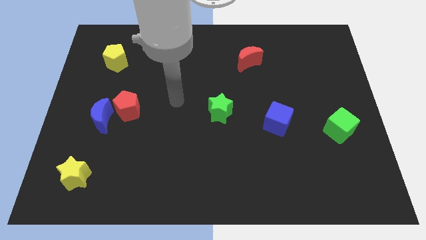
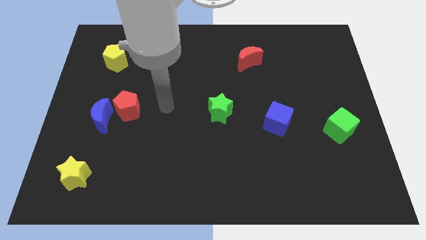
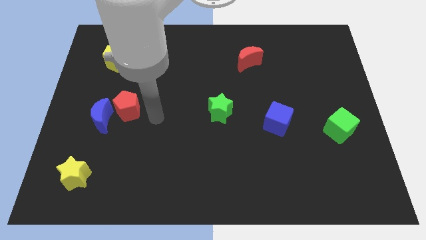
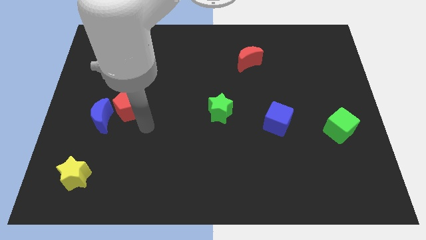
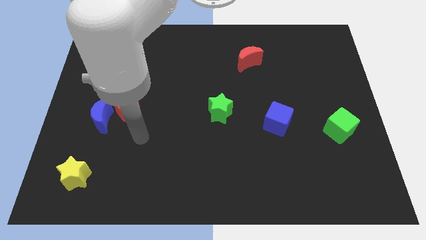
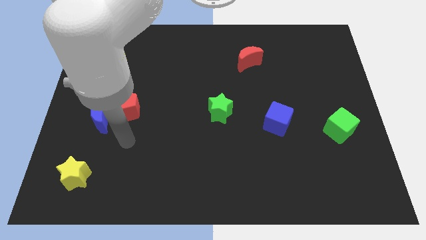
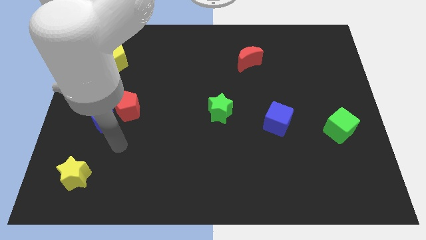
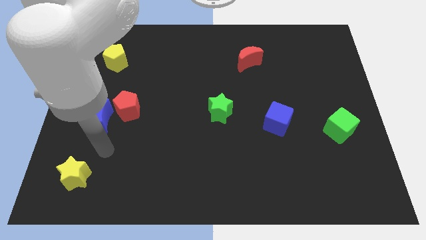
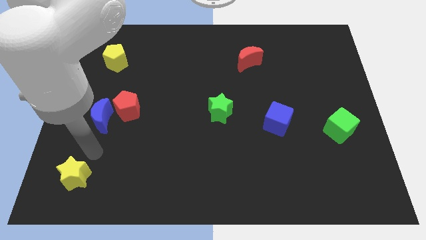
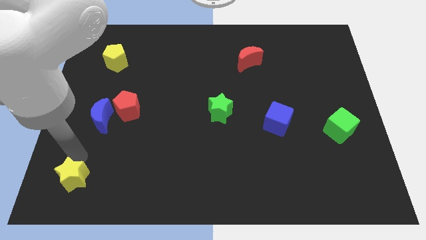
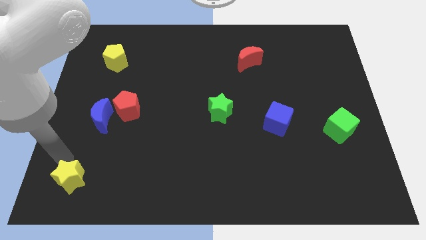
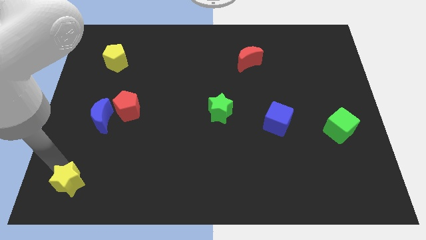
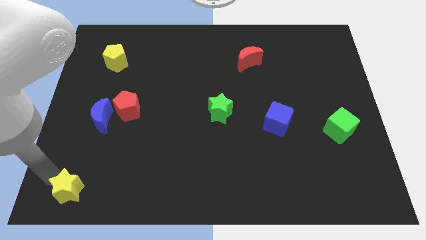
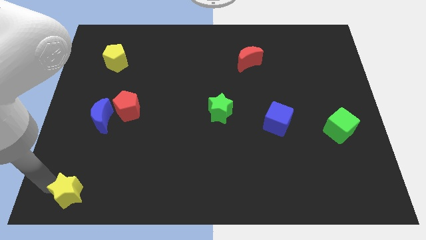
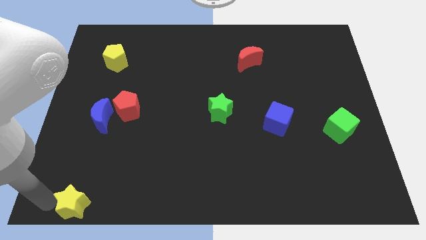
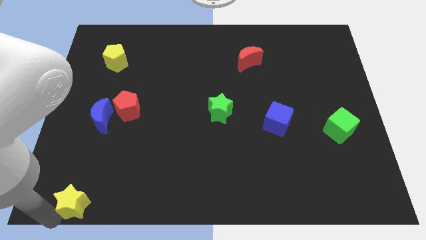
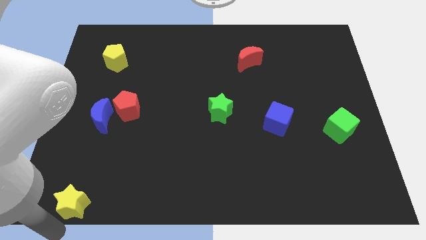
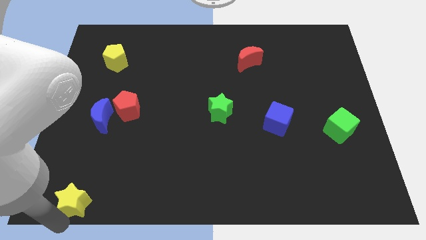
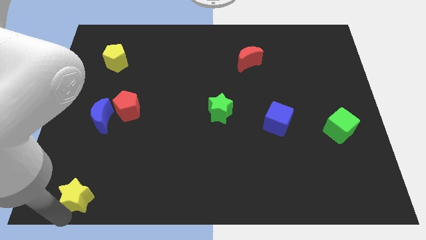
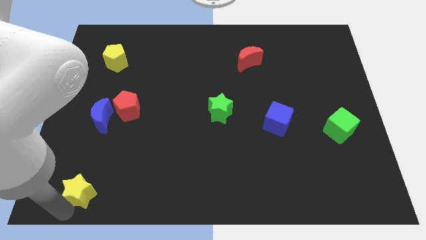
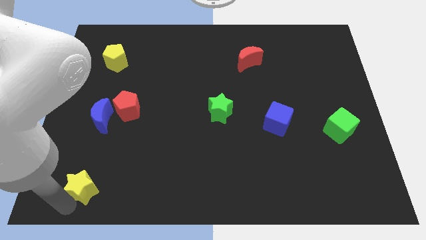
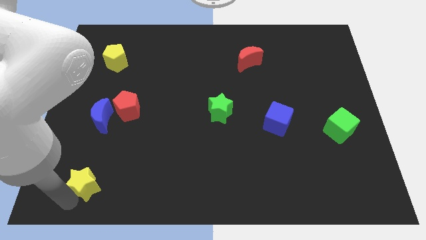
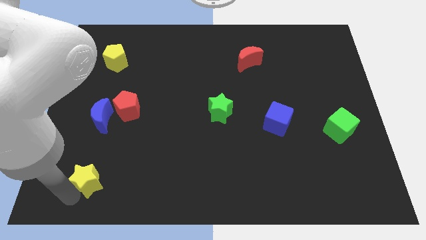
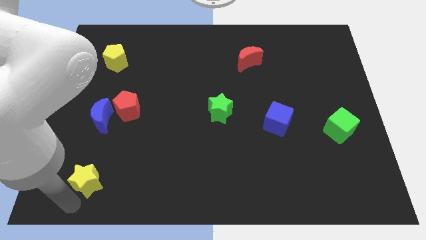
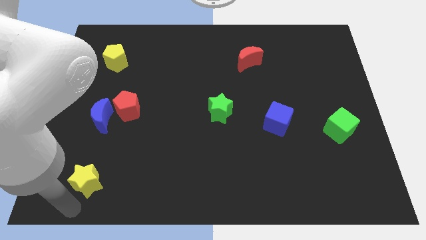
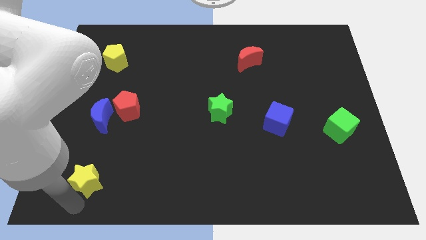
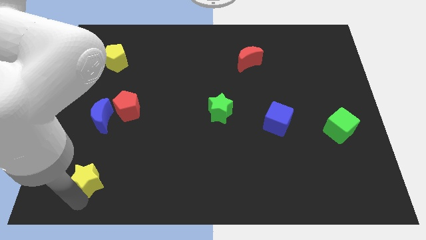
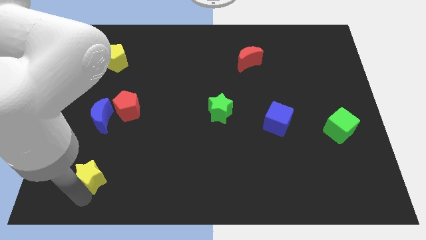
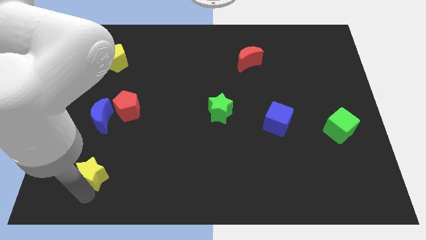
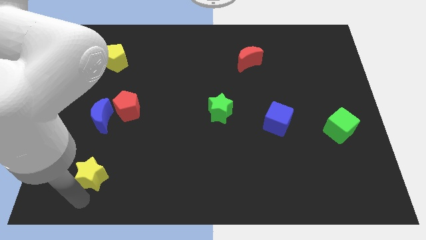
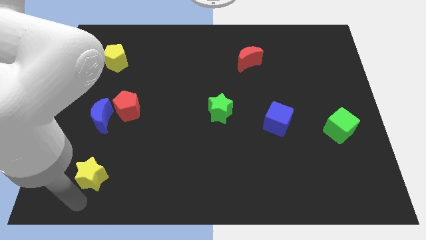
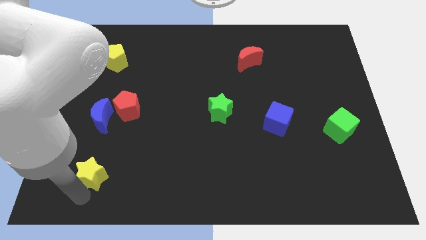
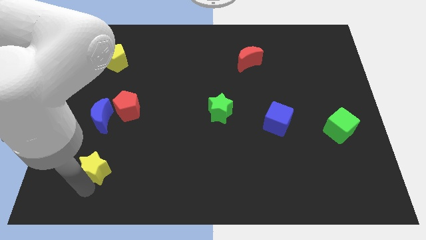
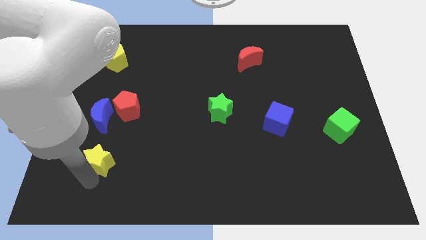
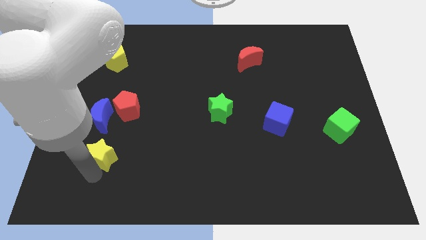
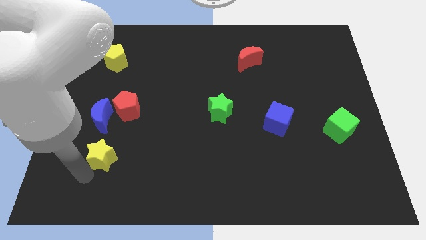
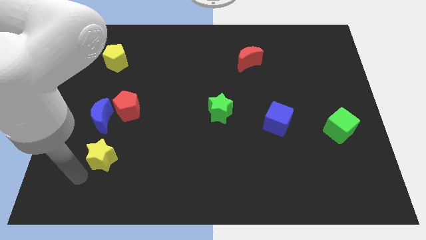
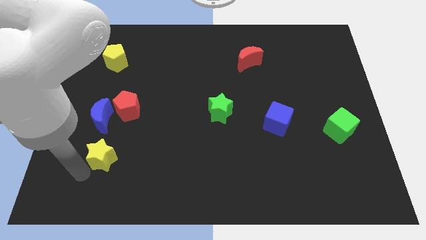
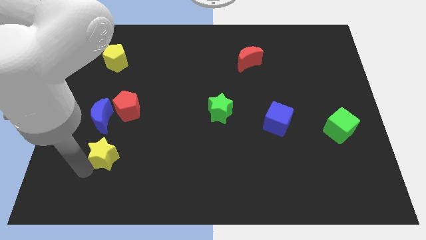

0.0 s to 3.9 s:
slide the yellow star up and to the right diagonally slightly
